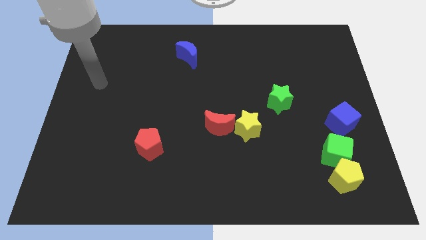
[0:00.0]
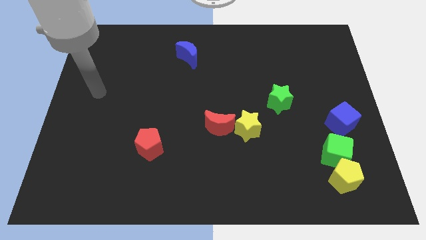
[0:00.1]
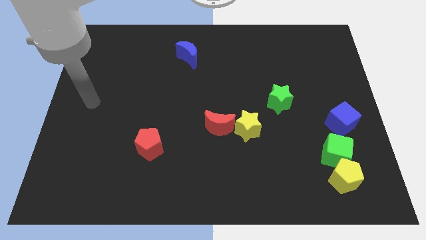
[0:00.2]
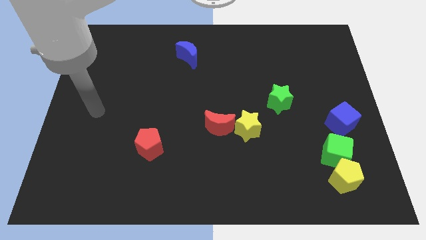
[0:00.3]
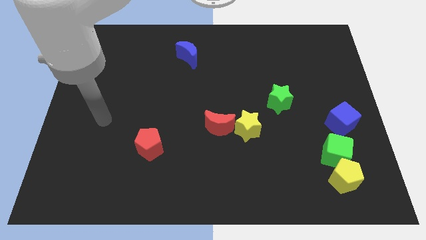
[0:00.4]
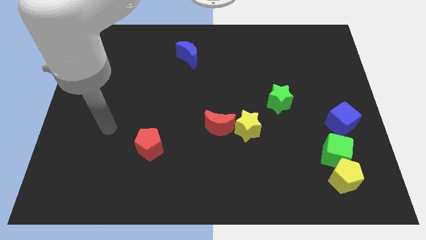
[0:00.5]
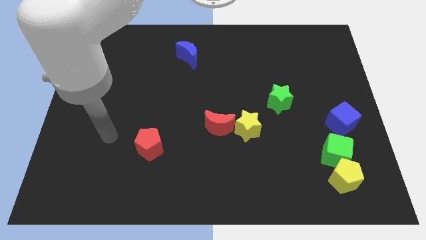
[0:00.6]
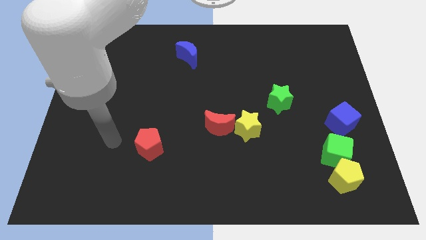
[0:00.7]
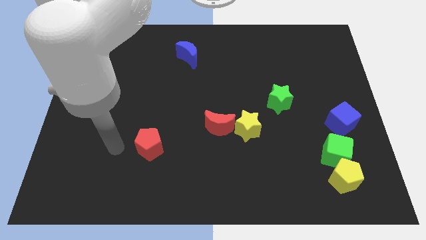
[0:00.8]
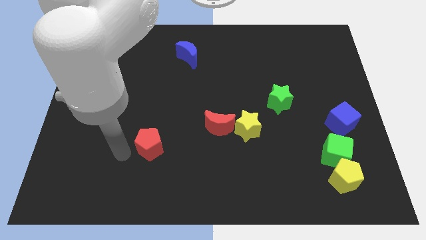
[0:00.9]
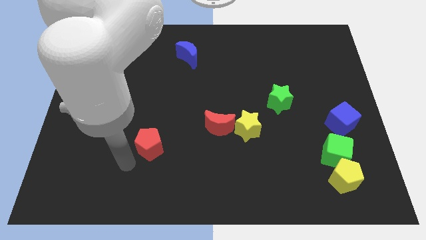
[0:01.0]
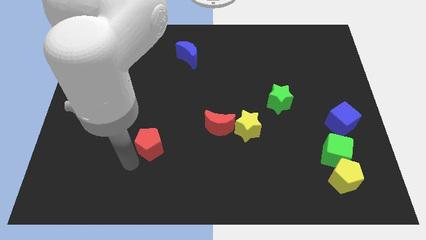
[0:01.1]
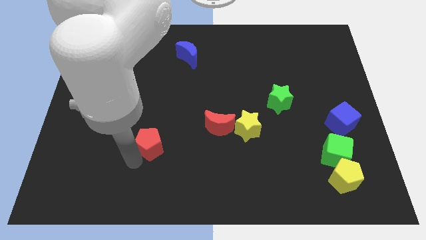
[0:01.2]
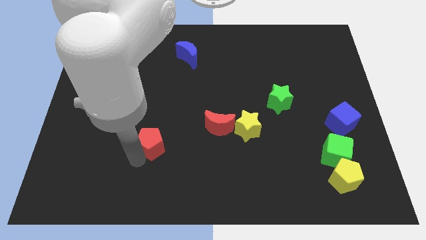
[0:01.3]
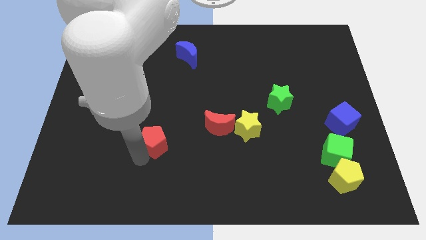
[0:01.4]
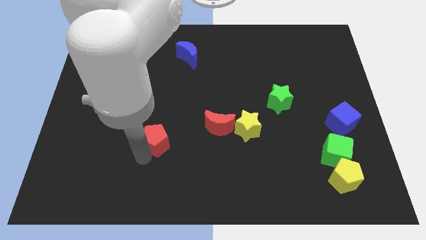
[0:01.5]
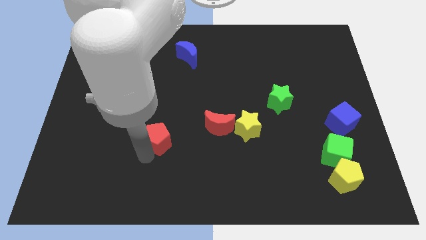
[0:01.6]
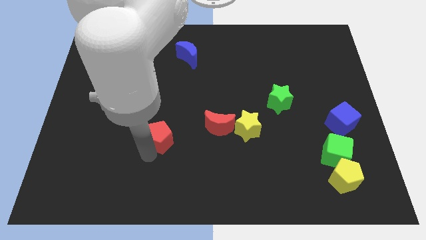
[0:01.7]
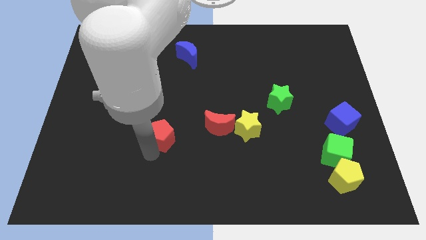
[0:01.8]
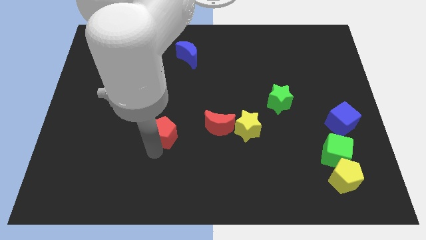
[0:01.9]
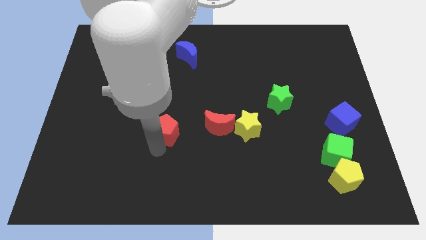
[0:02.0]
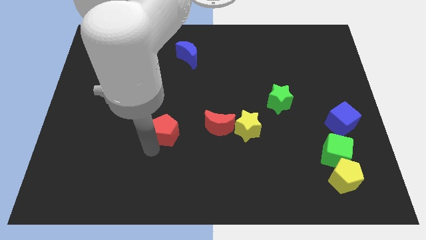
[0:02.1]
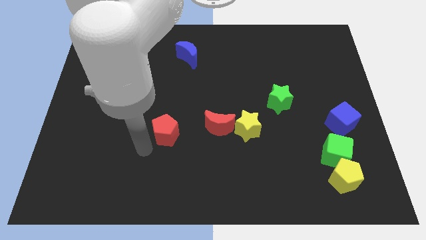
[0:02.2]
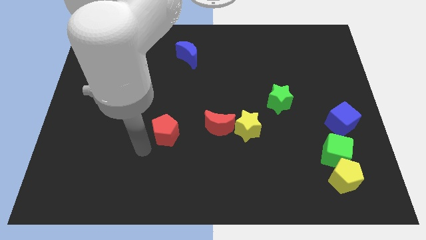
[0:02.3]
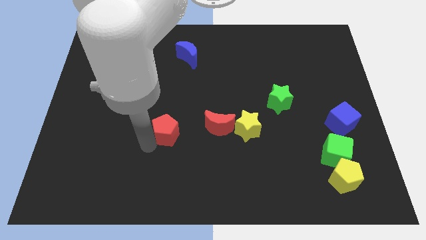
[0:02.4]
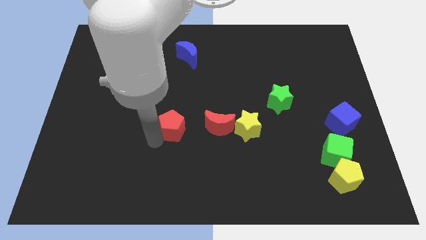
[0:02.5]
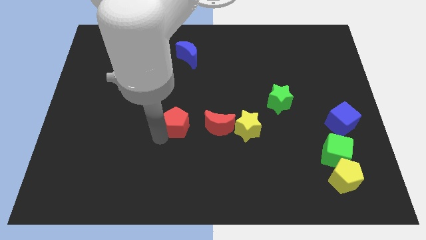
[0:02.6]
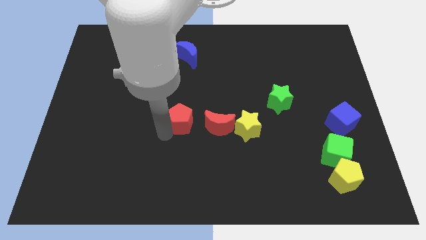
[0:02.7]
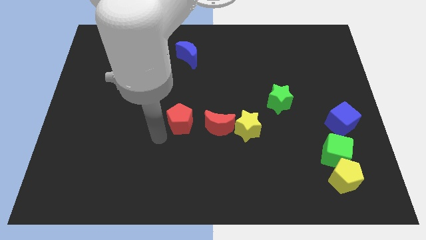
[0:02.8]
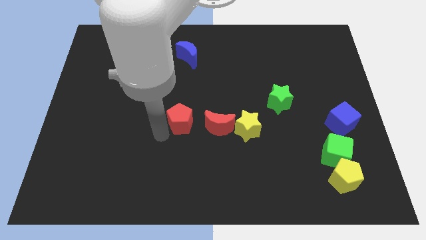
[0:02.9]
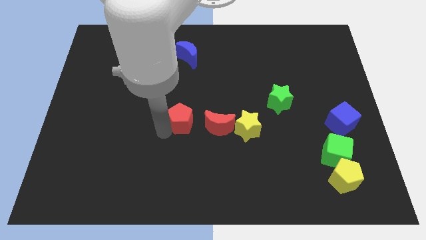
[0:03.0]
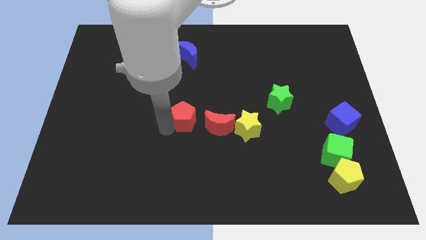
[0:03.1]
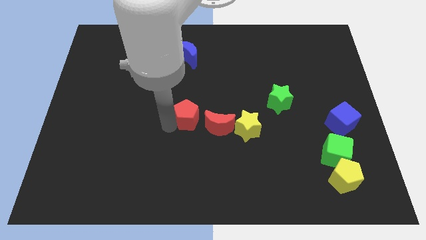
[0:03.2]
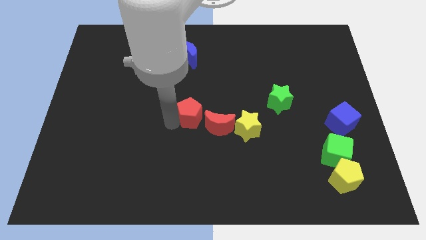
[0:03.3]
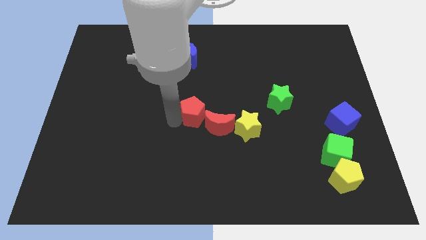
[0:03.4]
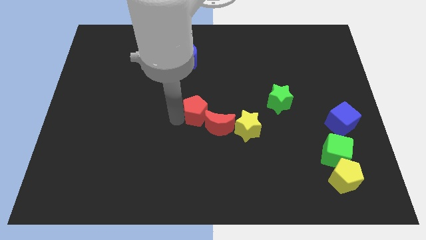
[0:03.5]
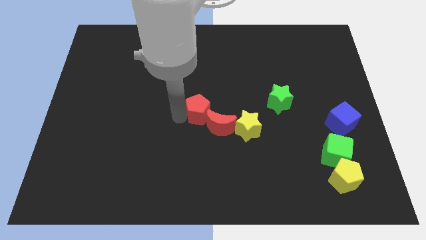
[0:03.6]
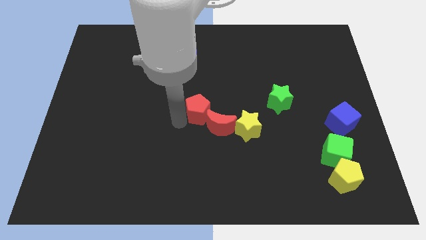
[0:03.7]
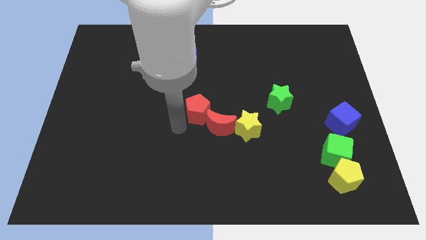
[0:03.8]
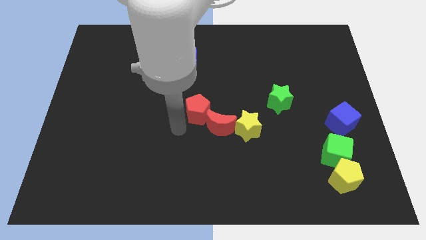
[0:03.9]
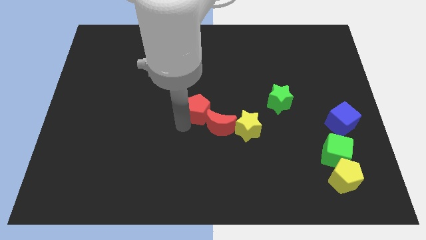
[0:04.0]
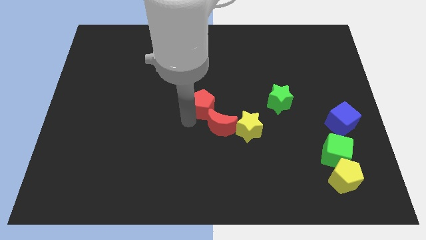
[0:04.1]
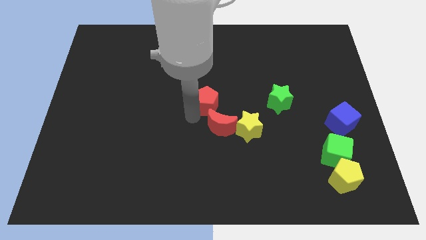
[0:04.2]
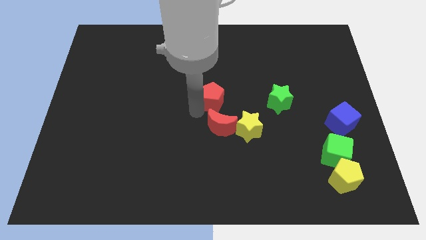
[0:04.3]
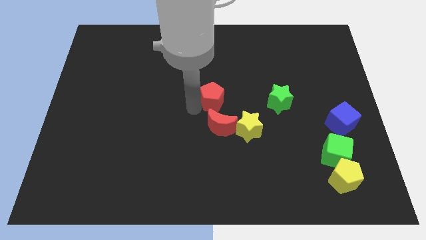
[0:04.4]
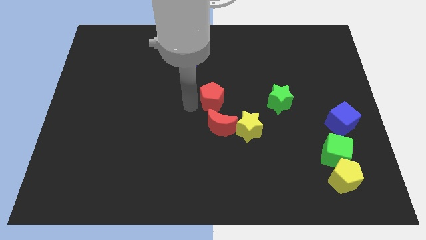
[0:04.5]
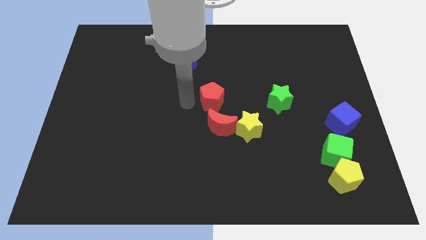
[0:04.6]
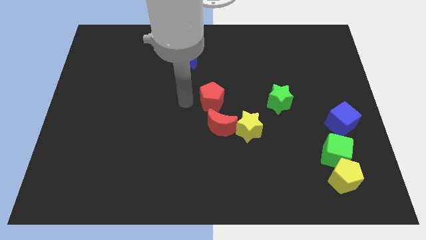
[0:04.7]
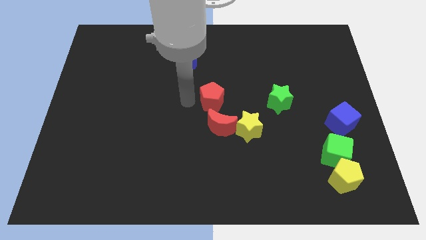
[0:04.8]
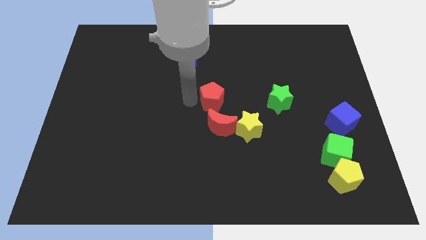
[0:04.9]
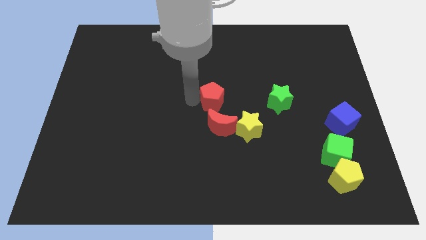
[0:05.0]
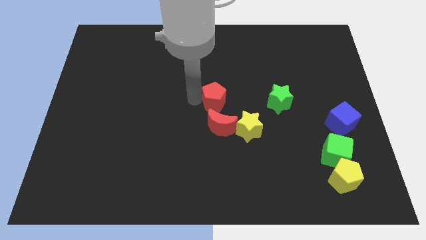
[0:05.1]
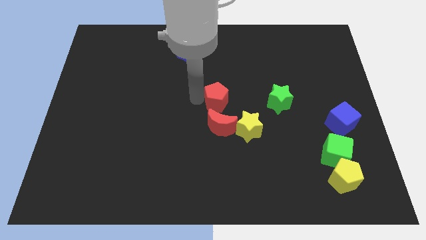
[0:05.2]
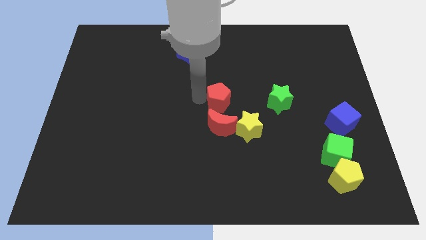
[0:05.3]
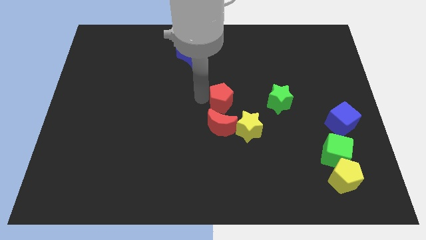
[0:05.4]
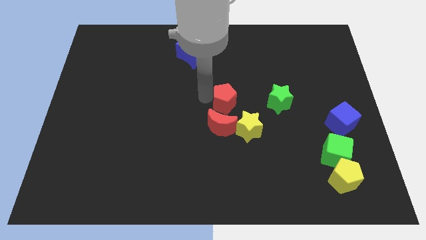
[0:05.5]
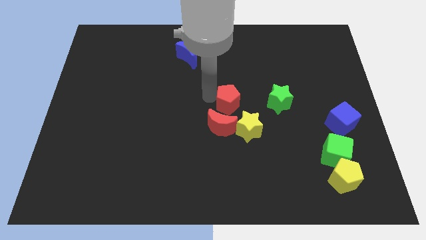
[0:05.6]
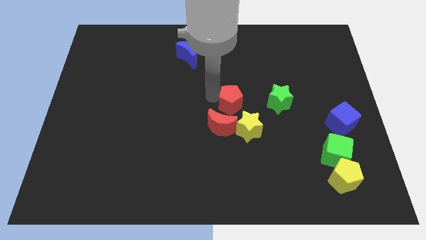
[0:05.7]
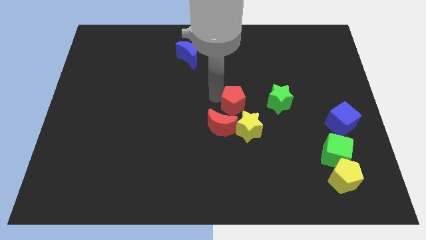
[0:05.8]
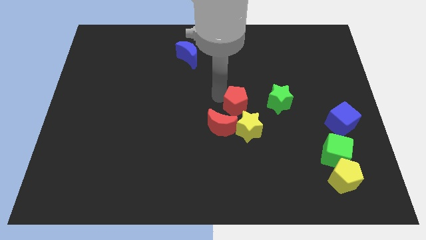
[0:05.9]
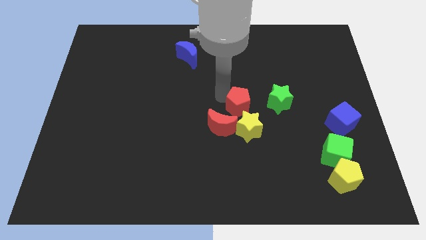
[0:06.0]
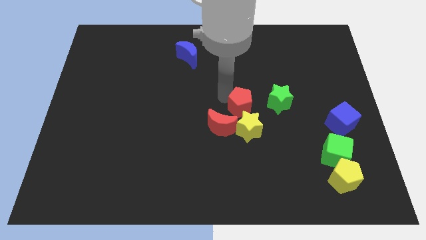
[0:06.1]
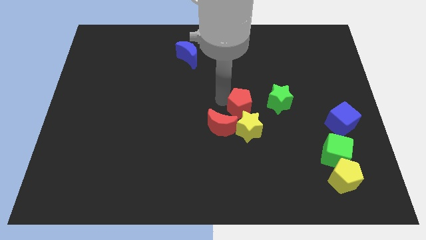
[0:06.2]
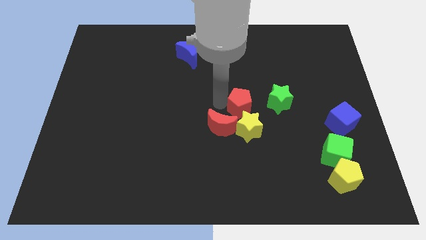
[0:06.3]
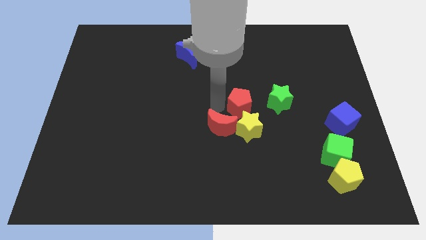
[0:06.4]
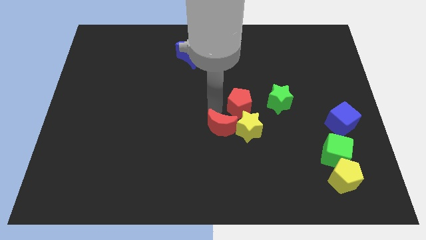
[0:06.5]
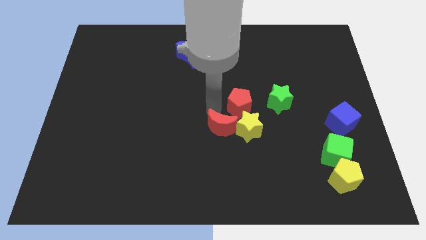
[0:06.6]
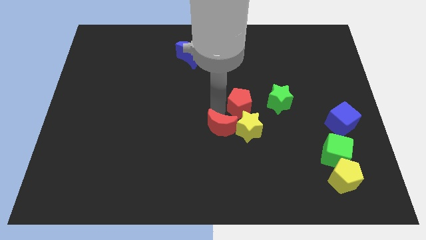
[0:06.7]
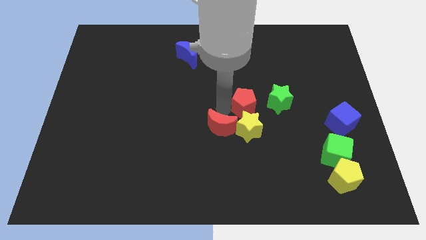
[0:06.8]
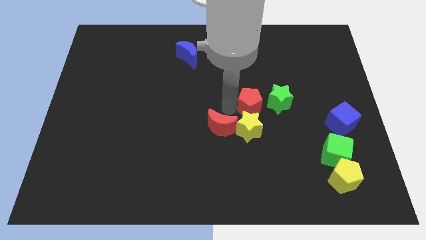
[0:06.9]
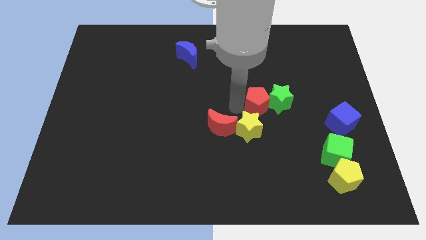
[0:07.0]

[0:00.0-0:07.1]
put the red pentagon towards the green star
